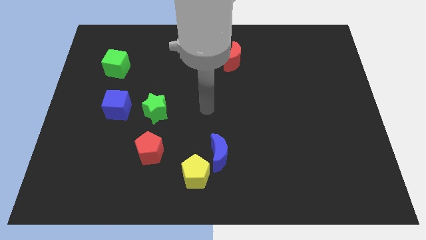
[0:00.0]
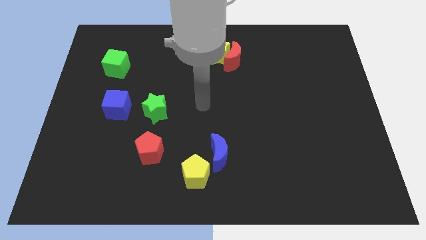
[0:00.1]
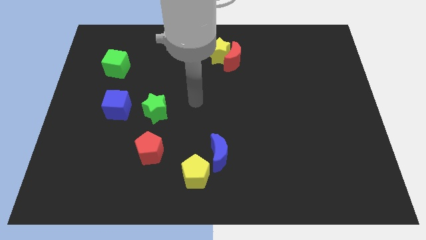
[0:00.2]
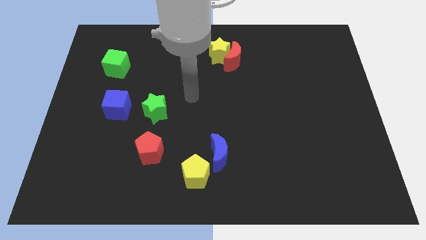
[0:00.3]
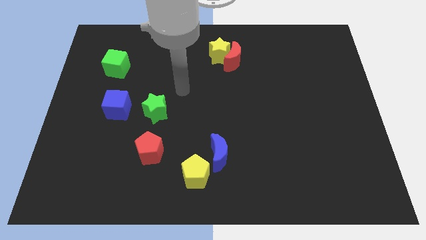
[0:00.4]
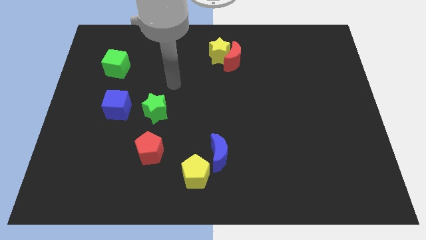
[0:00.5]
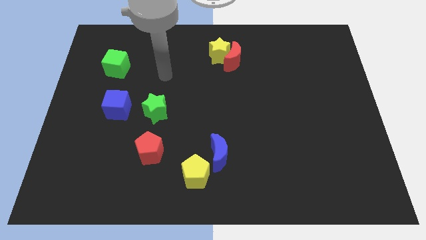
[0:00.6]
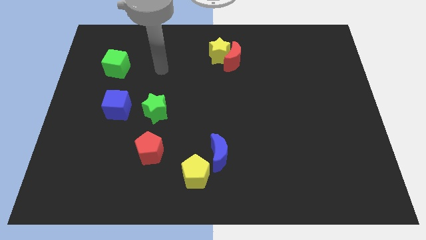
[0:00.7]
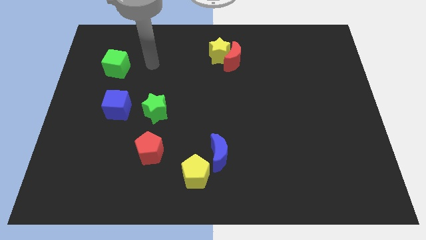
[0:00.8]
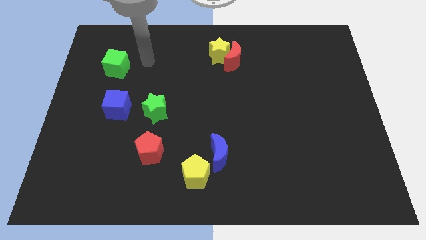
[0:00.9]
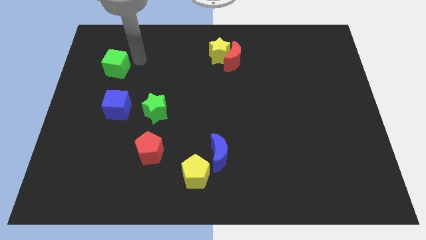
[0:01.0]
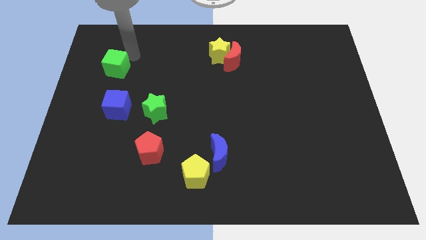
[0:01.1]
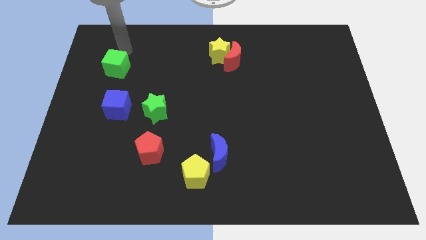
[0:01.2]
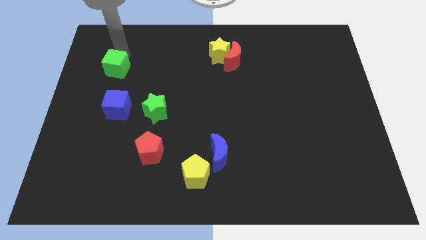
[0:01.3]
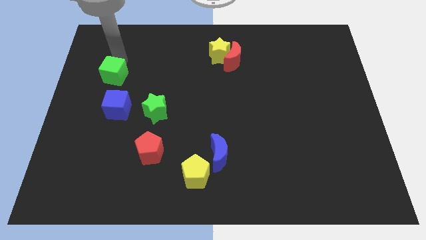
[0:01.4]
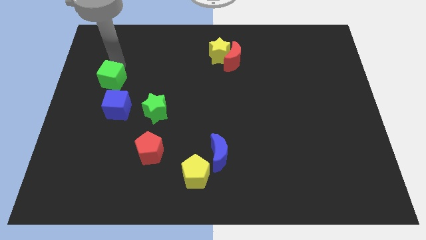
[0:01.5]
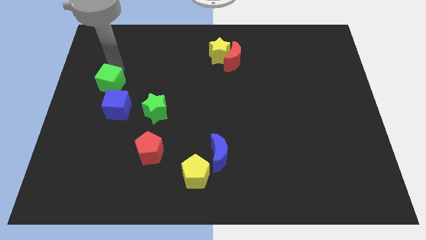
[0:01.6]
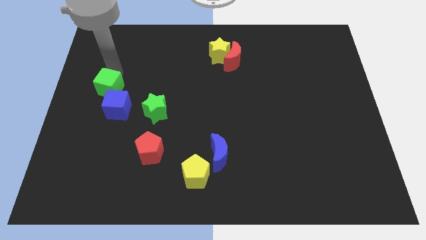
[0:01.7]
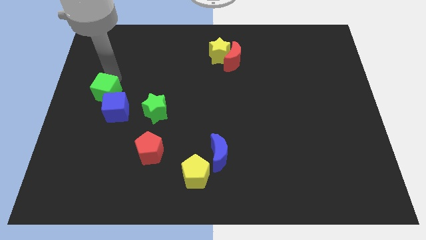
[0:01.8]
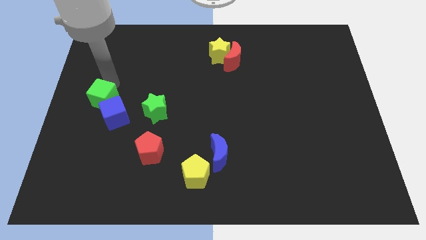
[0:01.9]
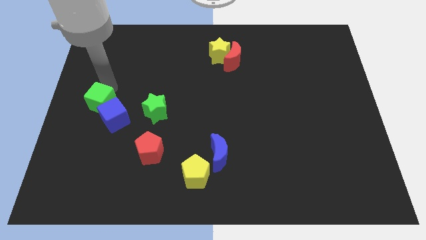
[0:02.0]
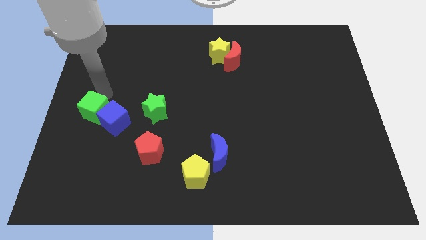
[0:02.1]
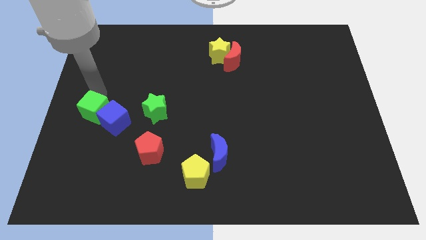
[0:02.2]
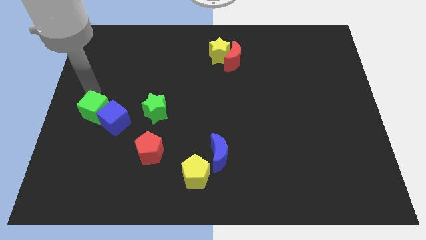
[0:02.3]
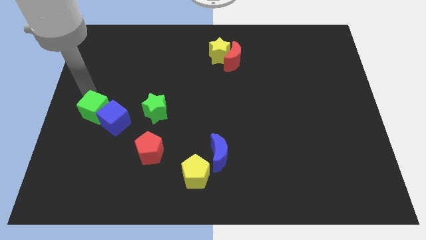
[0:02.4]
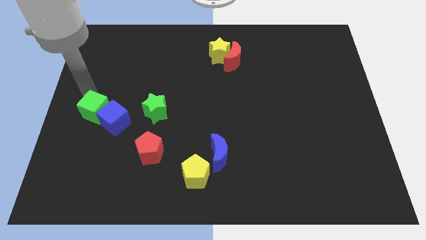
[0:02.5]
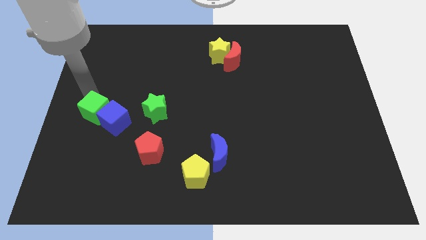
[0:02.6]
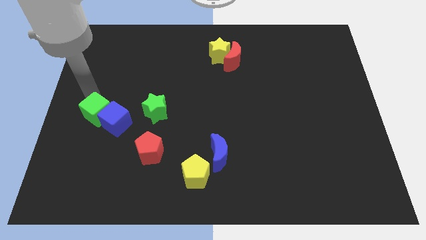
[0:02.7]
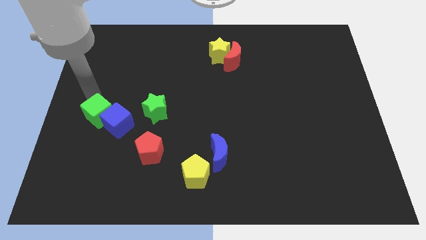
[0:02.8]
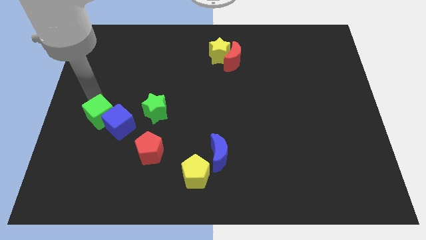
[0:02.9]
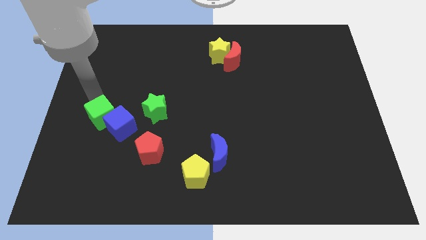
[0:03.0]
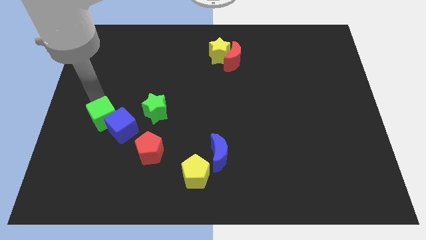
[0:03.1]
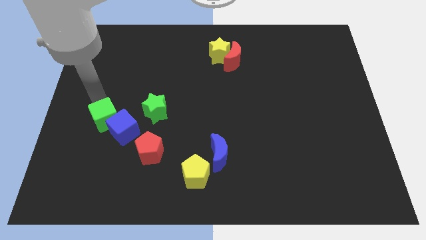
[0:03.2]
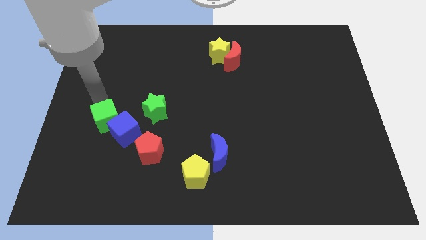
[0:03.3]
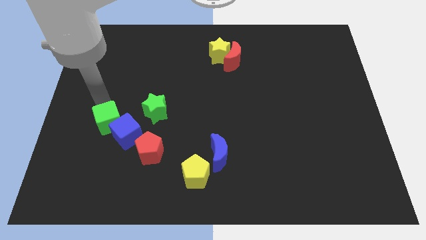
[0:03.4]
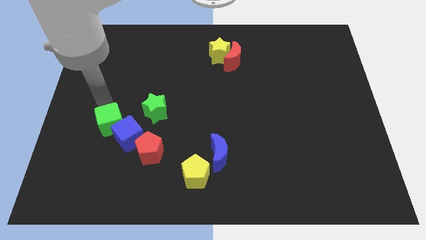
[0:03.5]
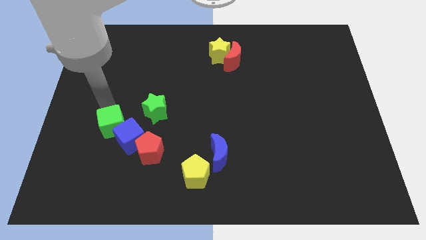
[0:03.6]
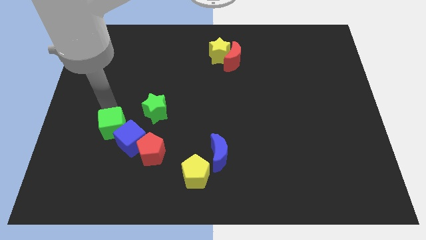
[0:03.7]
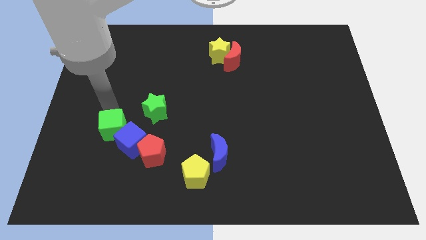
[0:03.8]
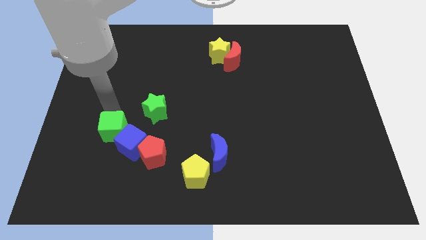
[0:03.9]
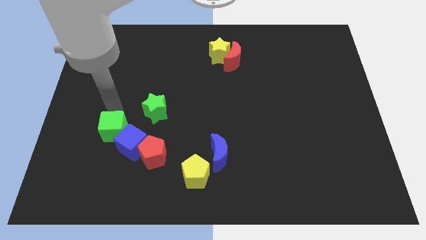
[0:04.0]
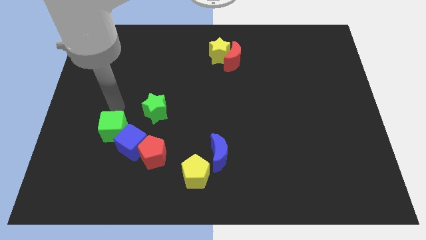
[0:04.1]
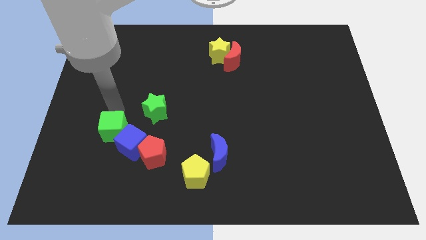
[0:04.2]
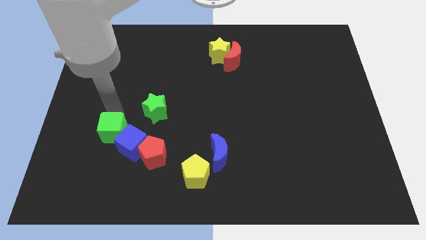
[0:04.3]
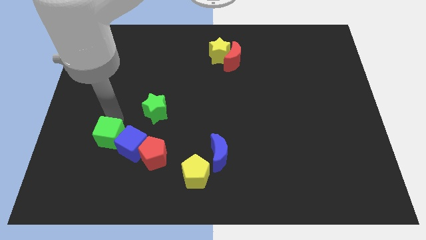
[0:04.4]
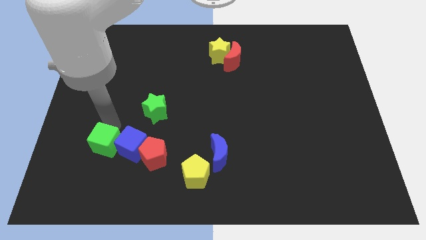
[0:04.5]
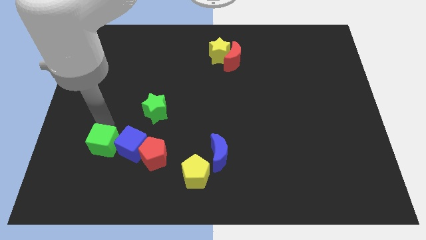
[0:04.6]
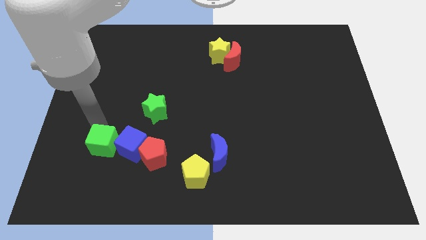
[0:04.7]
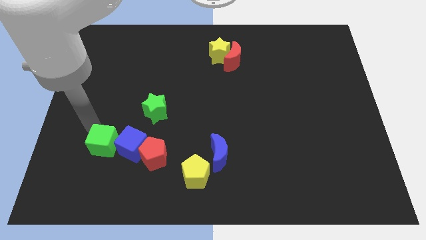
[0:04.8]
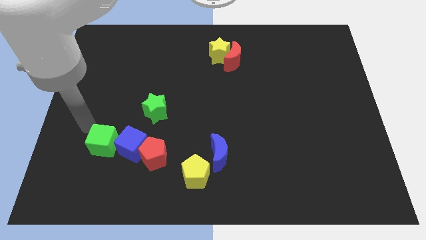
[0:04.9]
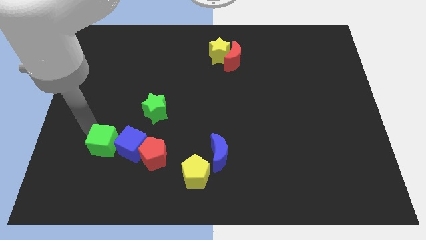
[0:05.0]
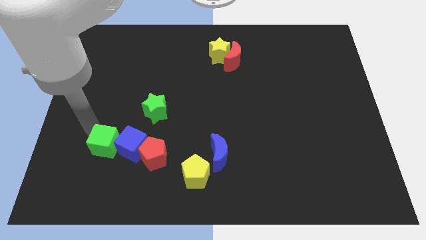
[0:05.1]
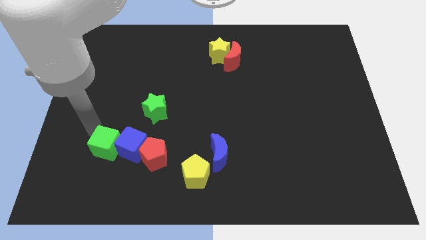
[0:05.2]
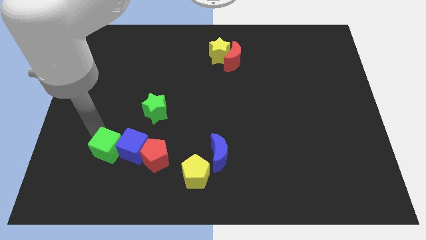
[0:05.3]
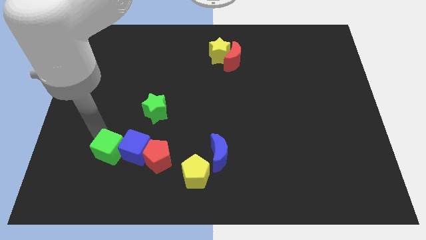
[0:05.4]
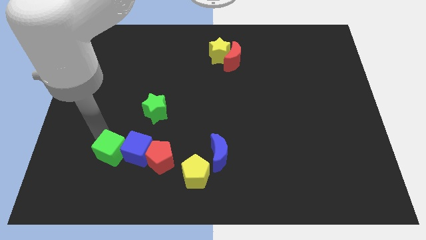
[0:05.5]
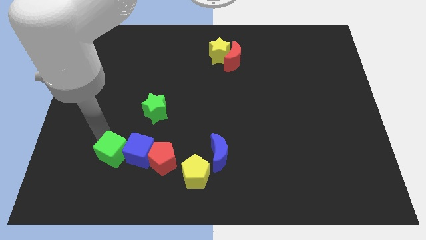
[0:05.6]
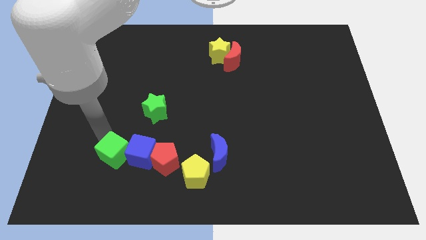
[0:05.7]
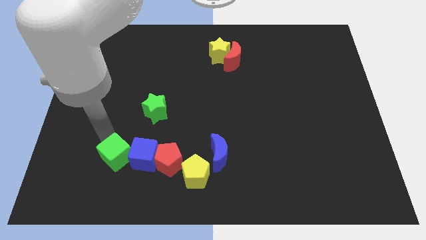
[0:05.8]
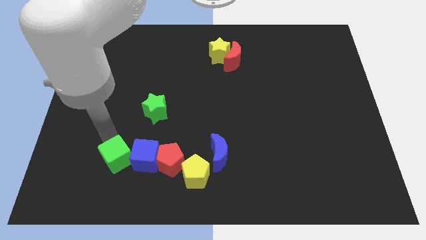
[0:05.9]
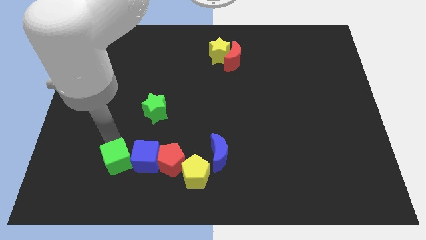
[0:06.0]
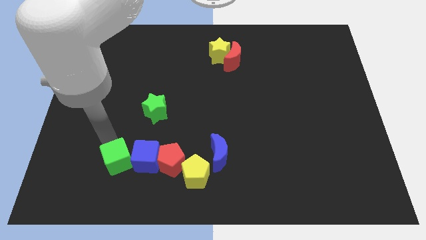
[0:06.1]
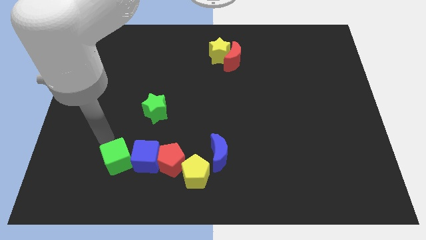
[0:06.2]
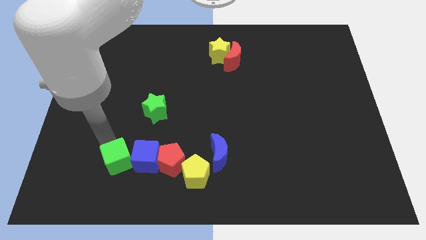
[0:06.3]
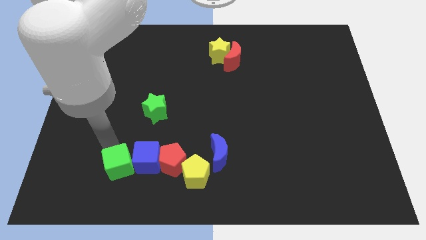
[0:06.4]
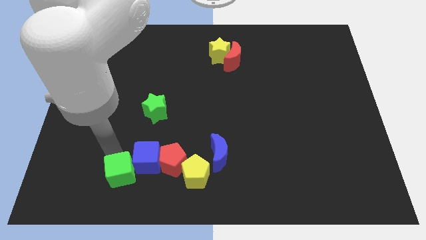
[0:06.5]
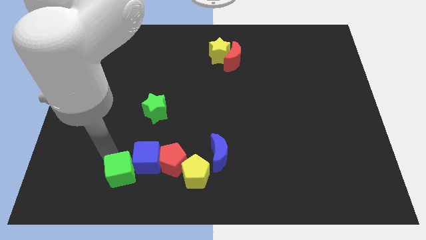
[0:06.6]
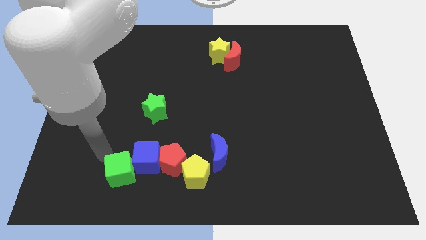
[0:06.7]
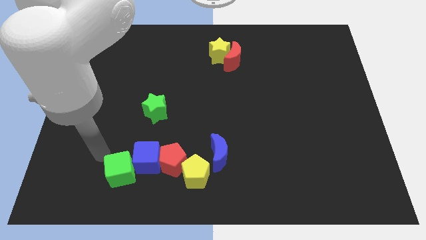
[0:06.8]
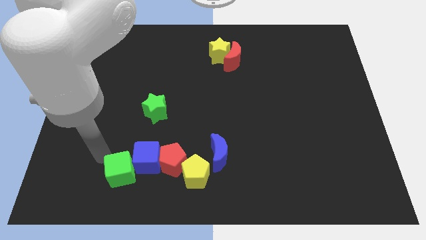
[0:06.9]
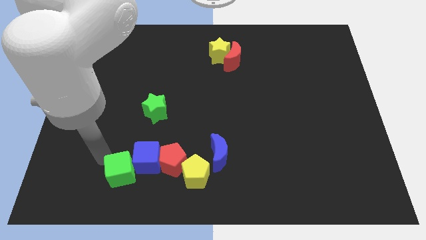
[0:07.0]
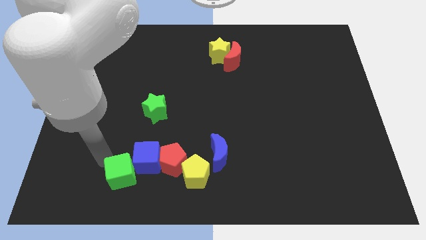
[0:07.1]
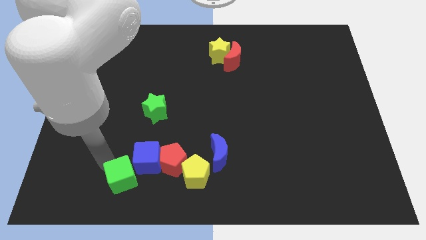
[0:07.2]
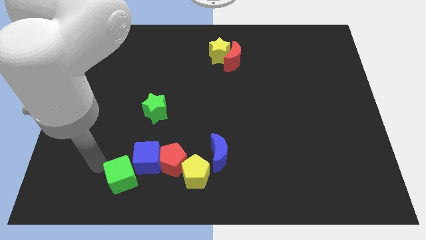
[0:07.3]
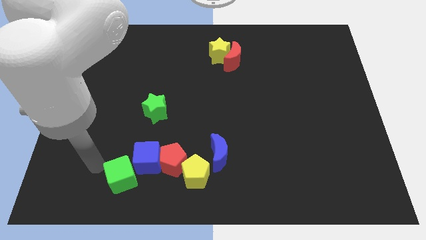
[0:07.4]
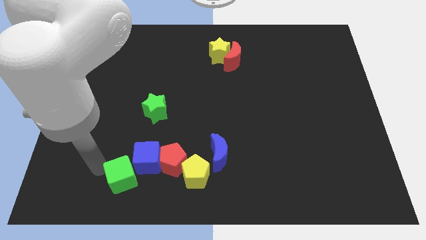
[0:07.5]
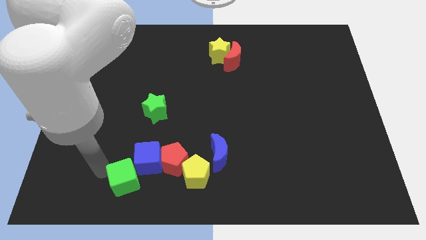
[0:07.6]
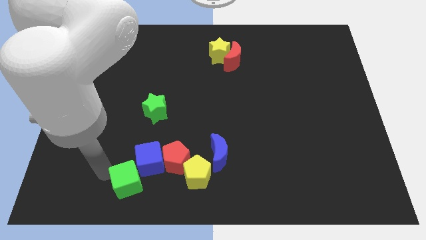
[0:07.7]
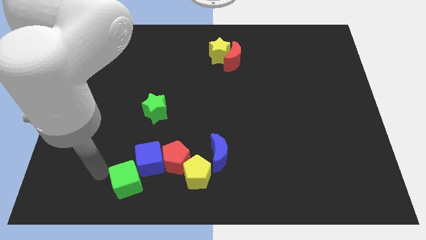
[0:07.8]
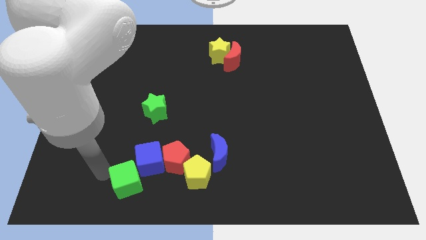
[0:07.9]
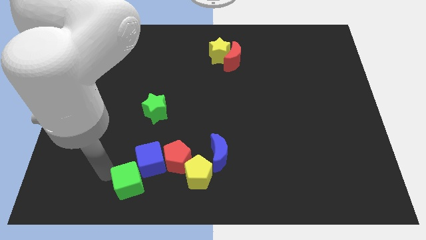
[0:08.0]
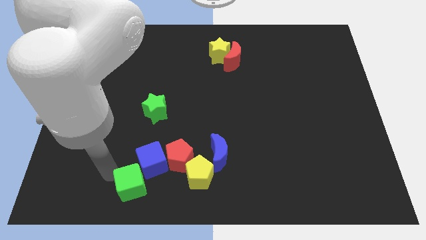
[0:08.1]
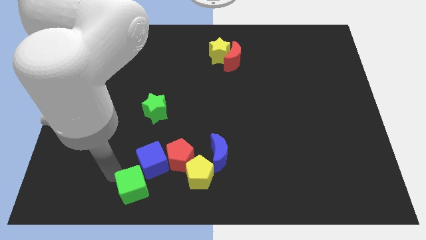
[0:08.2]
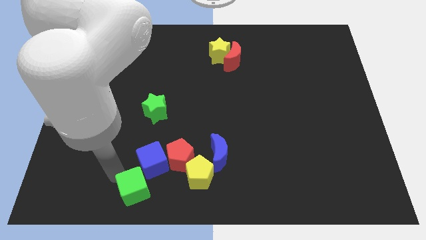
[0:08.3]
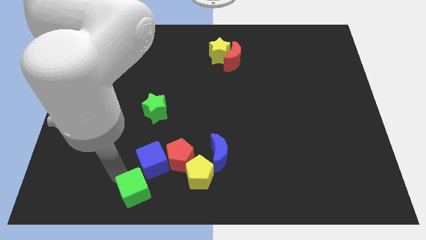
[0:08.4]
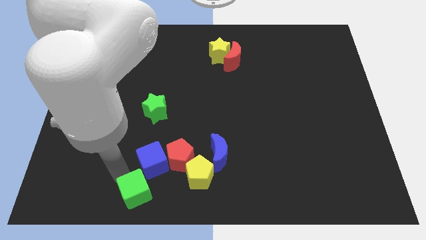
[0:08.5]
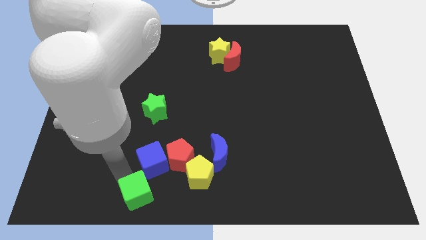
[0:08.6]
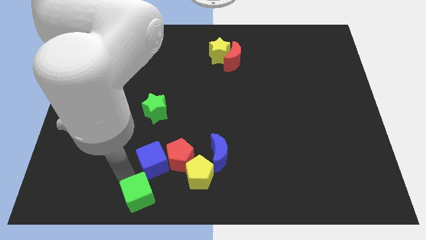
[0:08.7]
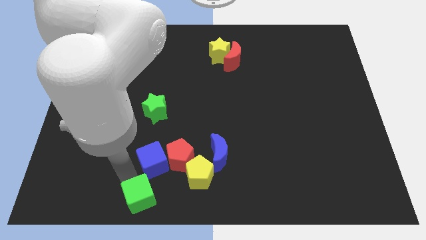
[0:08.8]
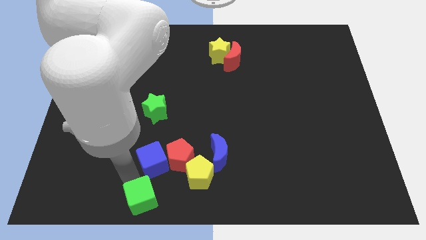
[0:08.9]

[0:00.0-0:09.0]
push the green cube to the bottom side
